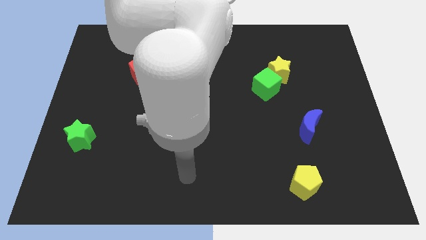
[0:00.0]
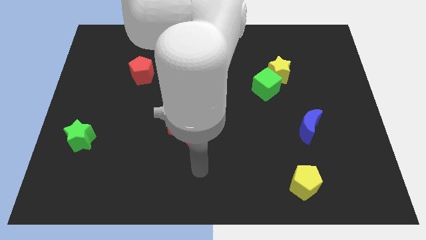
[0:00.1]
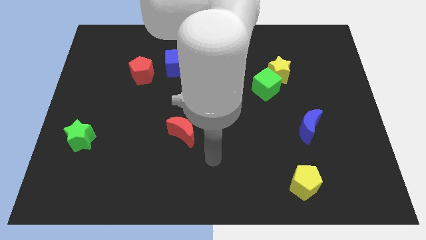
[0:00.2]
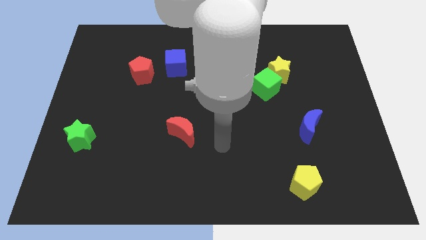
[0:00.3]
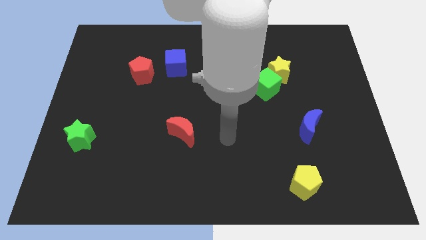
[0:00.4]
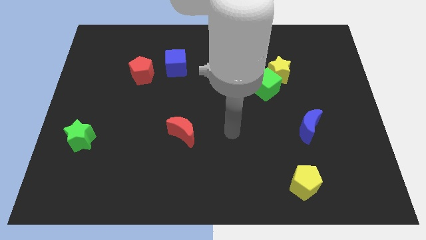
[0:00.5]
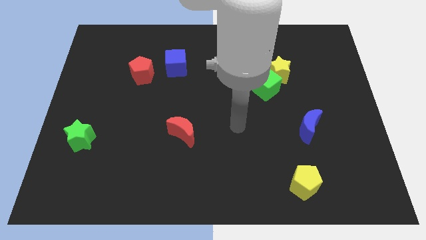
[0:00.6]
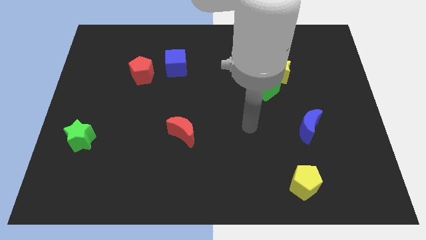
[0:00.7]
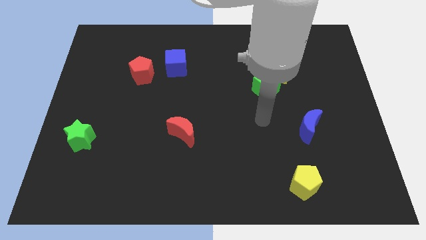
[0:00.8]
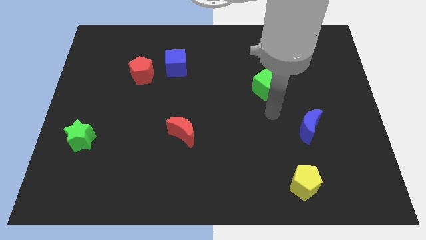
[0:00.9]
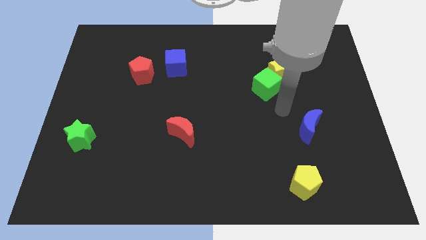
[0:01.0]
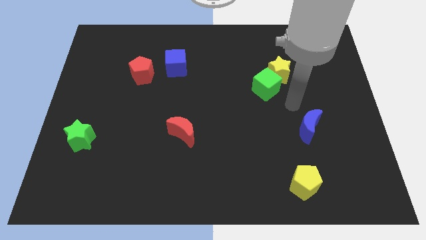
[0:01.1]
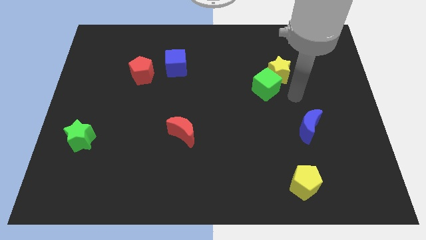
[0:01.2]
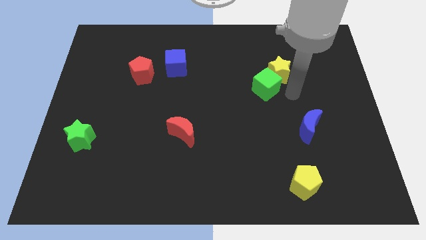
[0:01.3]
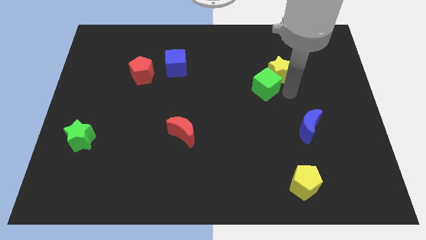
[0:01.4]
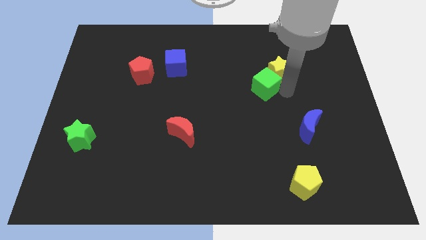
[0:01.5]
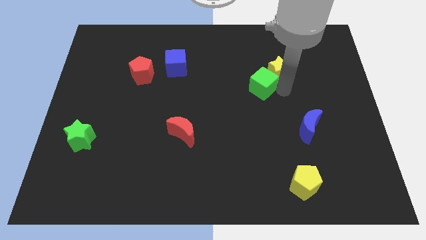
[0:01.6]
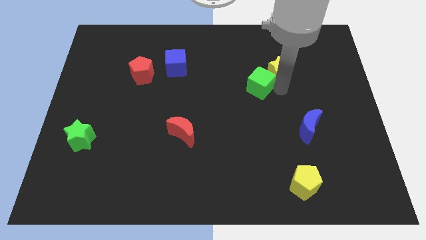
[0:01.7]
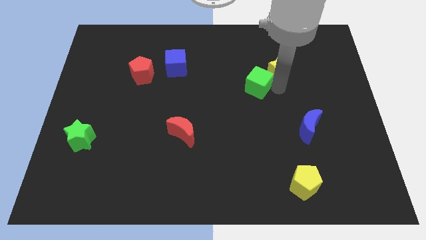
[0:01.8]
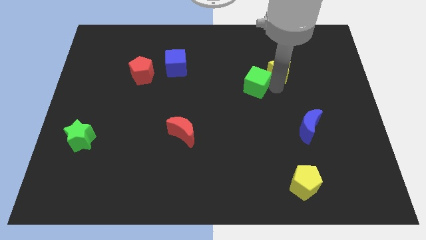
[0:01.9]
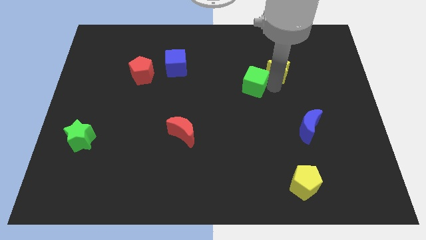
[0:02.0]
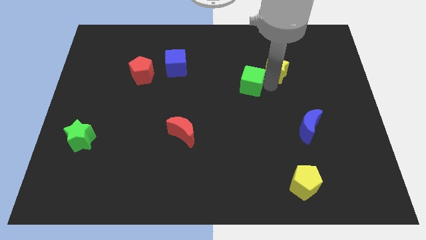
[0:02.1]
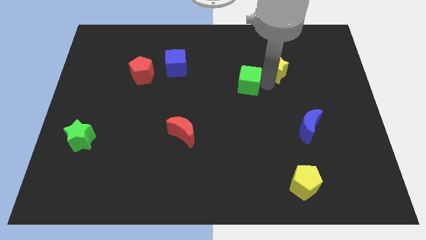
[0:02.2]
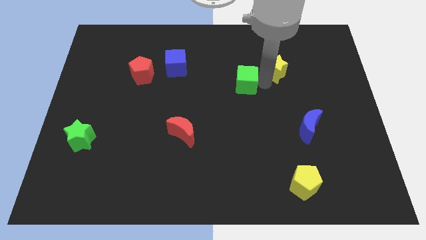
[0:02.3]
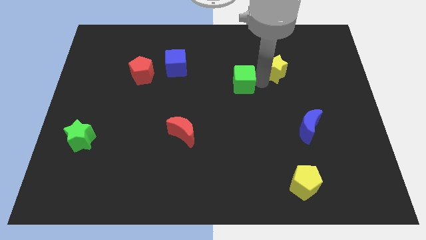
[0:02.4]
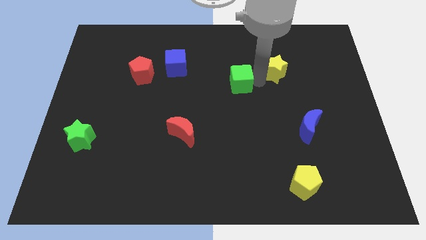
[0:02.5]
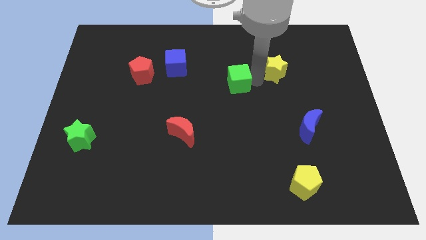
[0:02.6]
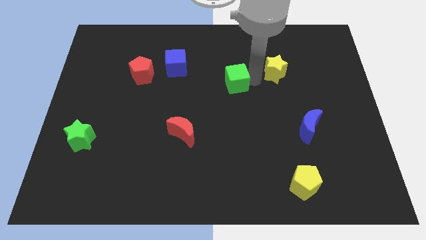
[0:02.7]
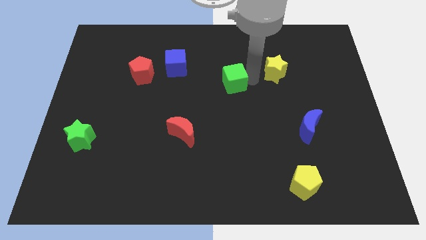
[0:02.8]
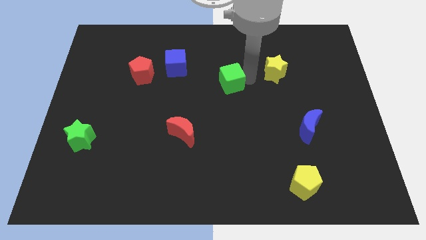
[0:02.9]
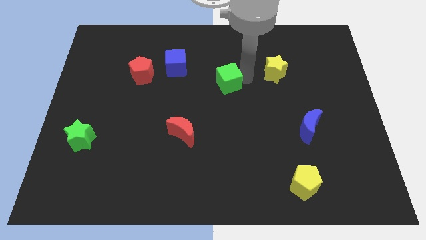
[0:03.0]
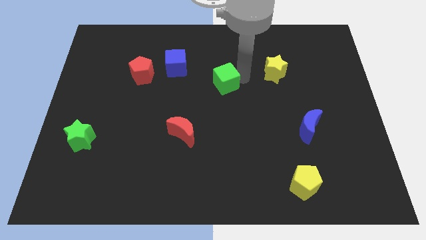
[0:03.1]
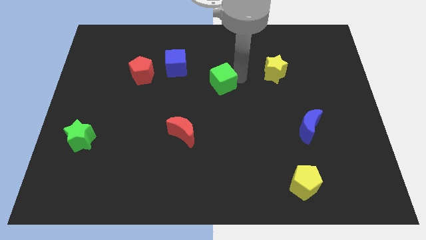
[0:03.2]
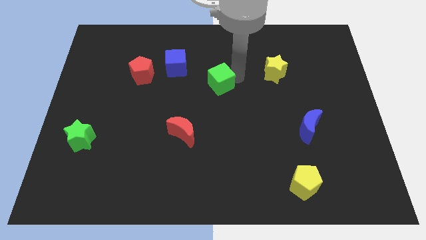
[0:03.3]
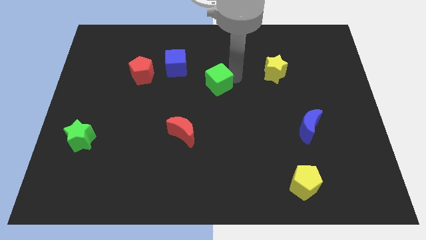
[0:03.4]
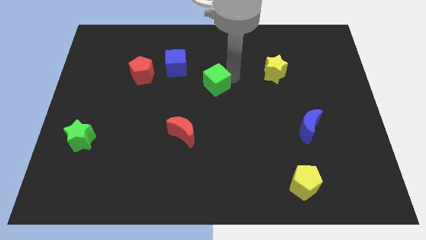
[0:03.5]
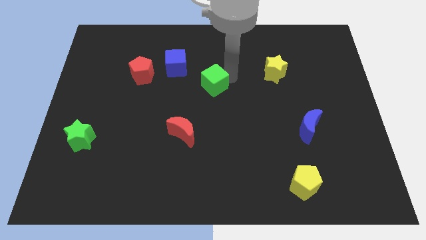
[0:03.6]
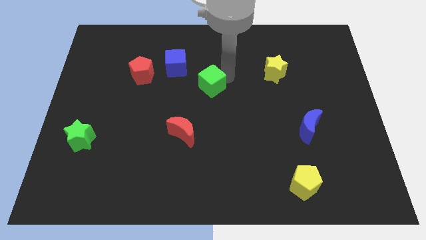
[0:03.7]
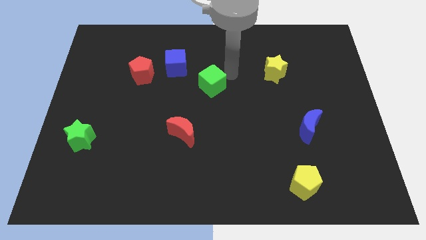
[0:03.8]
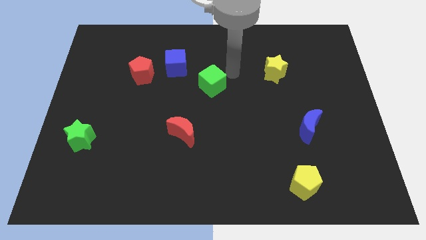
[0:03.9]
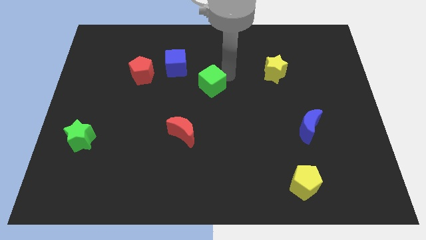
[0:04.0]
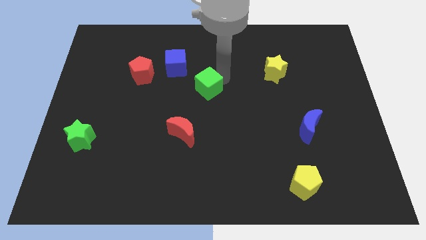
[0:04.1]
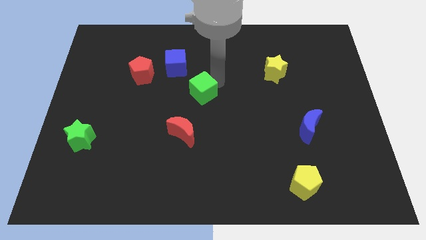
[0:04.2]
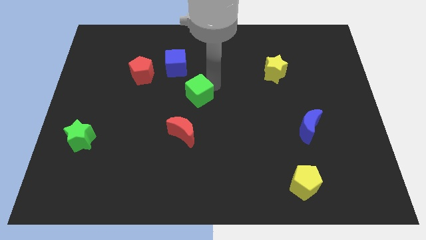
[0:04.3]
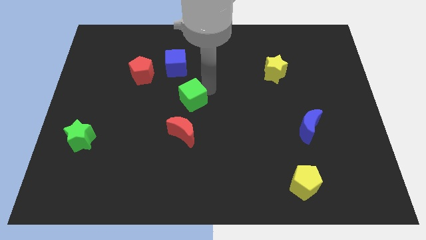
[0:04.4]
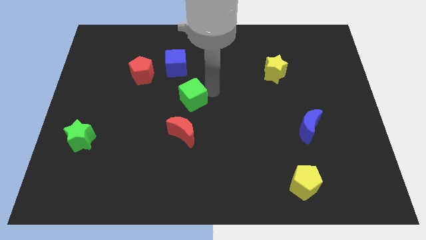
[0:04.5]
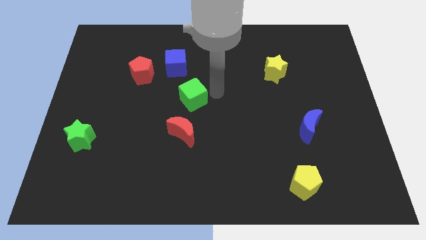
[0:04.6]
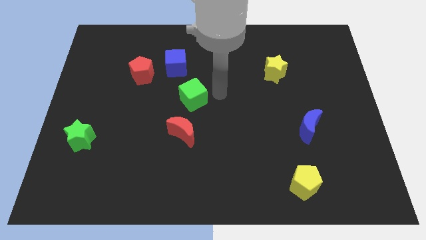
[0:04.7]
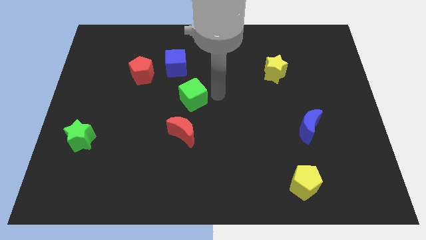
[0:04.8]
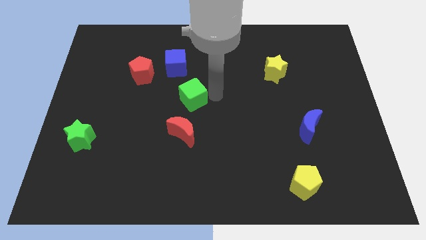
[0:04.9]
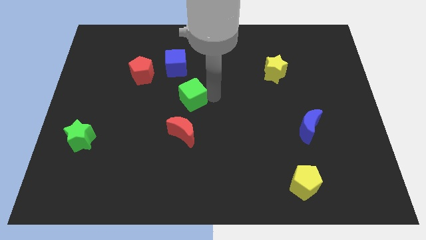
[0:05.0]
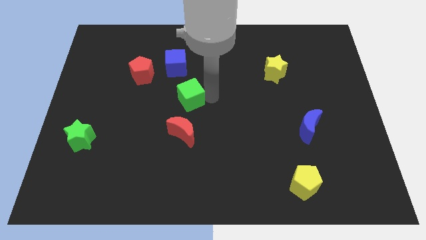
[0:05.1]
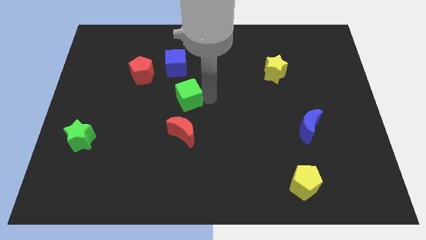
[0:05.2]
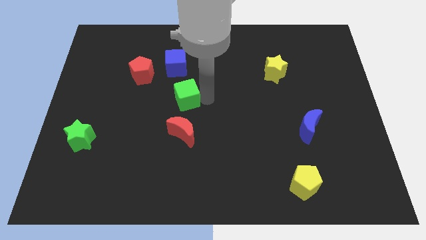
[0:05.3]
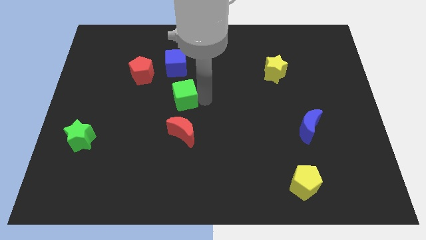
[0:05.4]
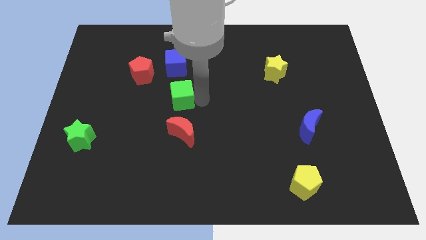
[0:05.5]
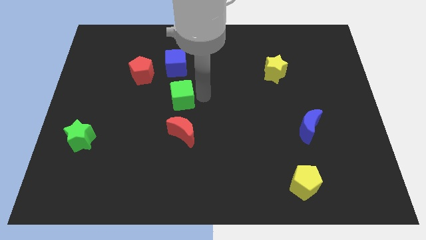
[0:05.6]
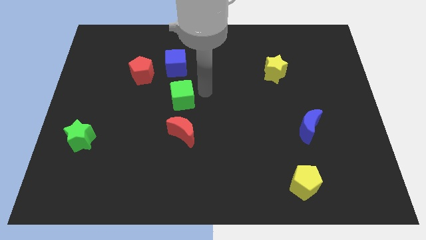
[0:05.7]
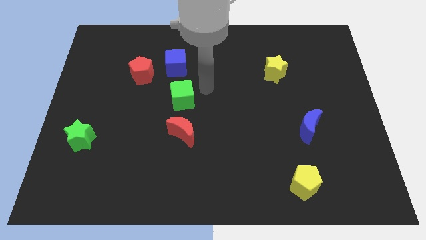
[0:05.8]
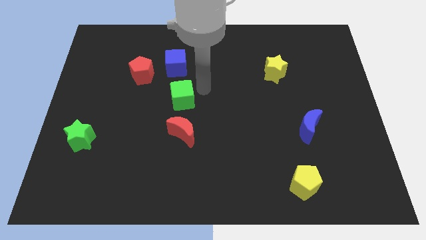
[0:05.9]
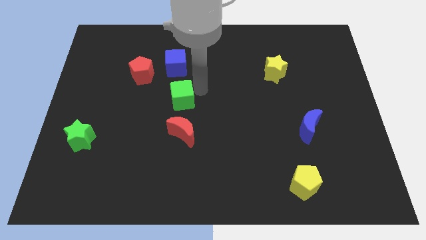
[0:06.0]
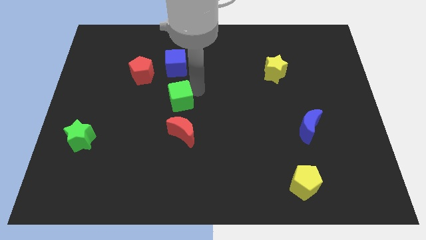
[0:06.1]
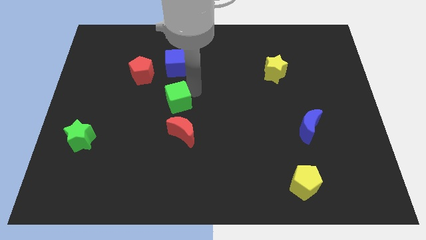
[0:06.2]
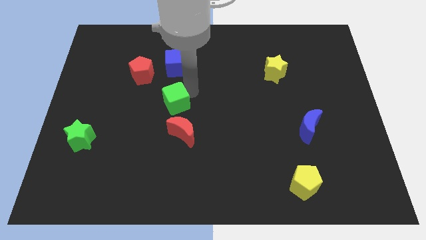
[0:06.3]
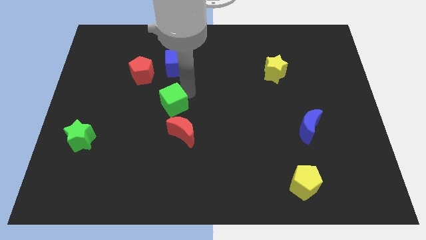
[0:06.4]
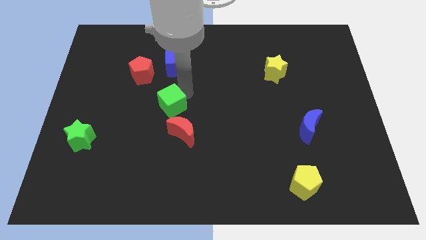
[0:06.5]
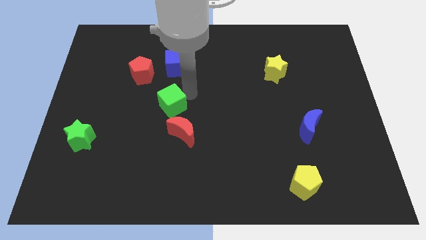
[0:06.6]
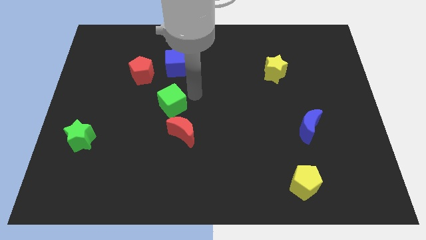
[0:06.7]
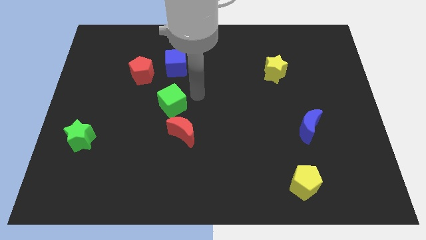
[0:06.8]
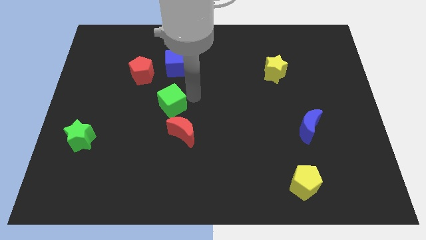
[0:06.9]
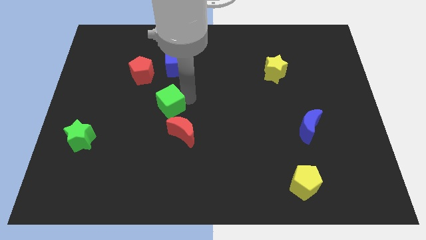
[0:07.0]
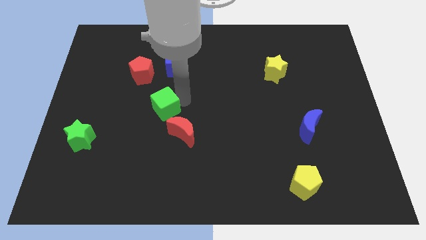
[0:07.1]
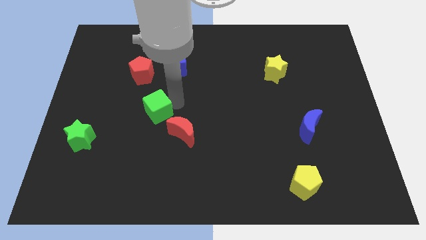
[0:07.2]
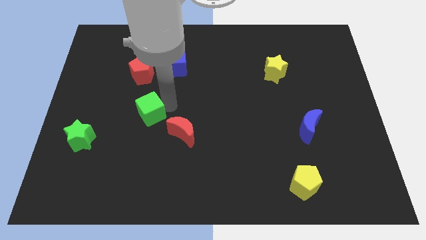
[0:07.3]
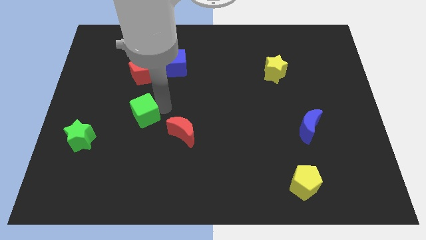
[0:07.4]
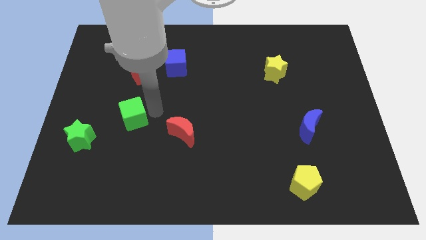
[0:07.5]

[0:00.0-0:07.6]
slide the green cube to the top right of the green star
